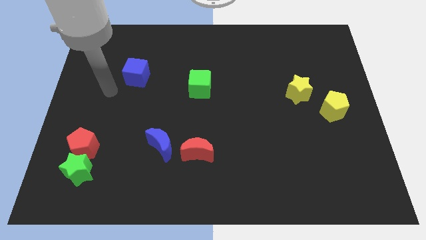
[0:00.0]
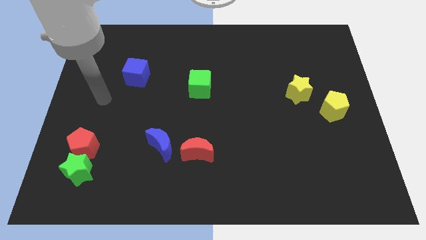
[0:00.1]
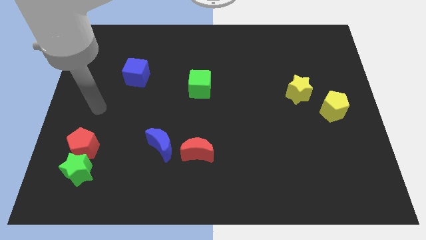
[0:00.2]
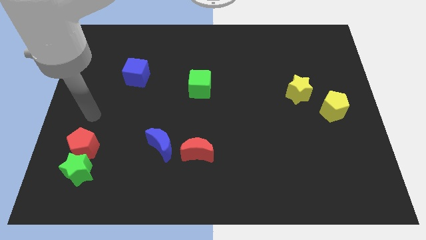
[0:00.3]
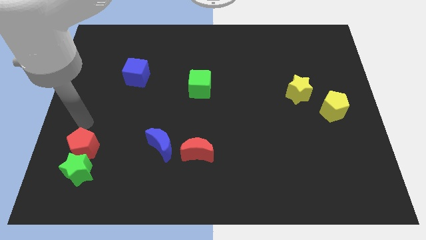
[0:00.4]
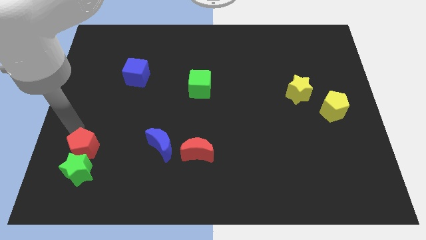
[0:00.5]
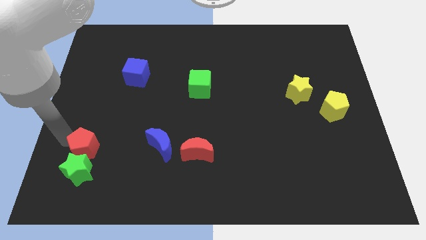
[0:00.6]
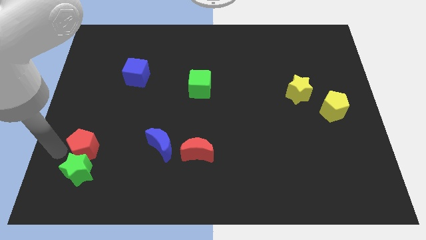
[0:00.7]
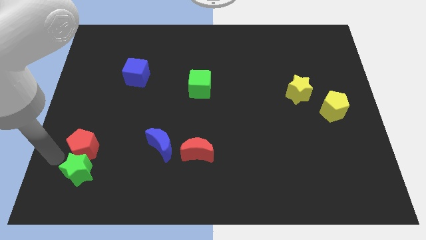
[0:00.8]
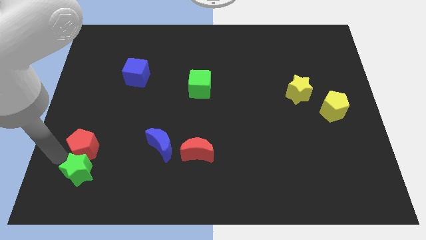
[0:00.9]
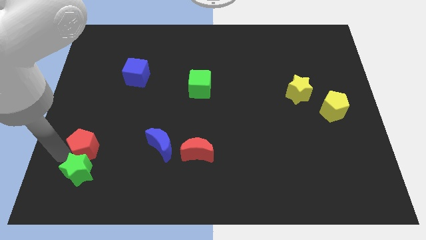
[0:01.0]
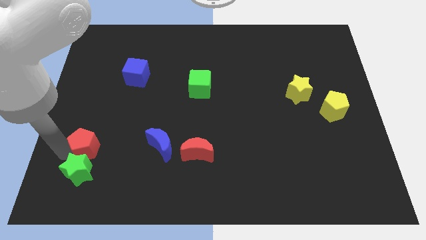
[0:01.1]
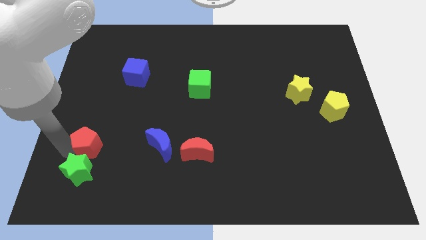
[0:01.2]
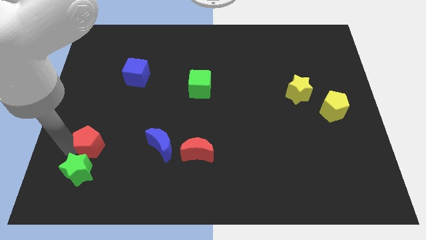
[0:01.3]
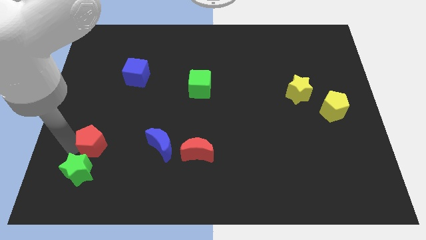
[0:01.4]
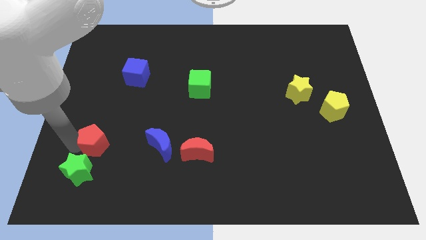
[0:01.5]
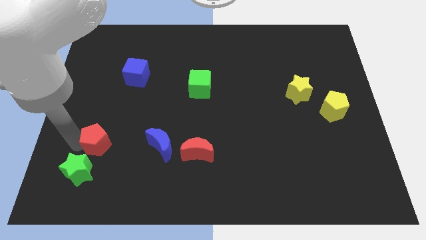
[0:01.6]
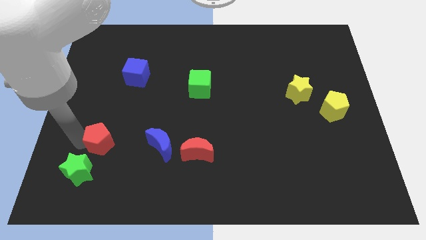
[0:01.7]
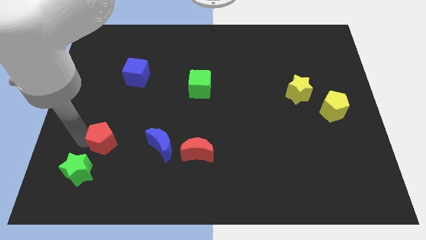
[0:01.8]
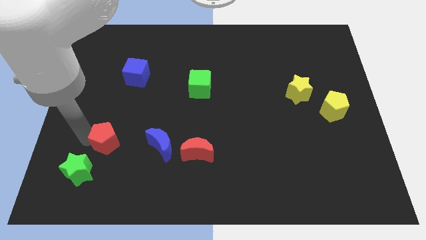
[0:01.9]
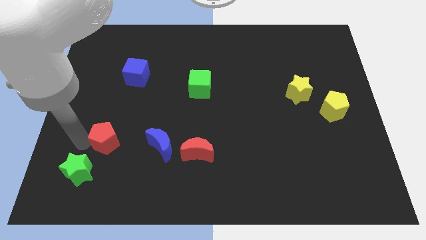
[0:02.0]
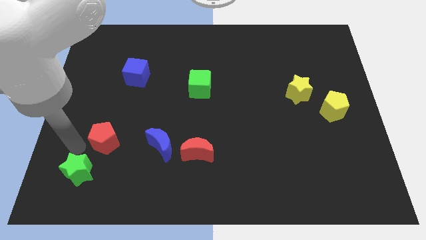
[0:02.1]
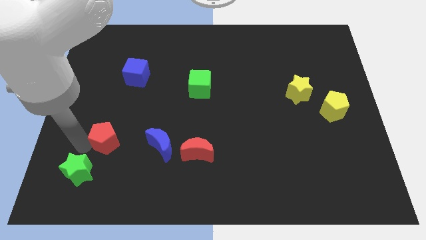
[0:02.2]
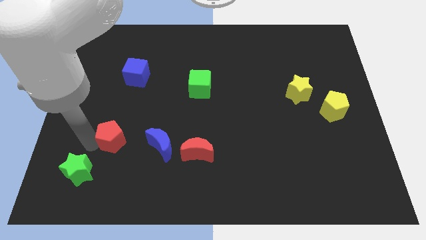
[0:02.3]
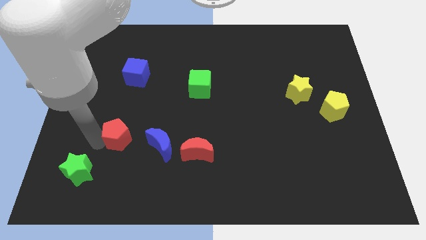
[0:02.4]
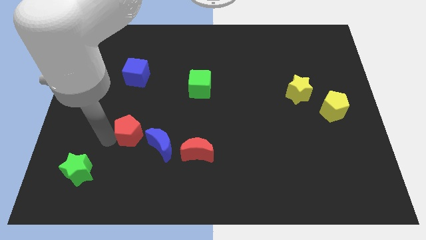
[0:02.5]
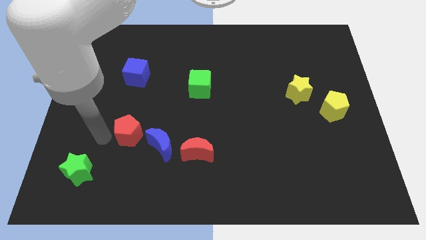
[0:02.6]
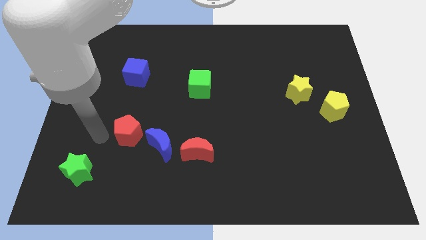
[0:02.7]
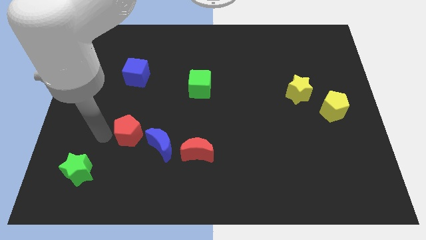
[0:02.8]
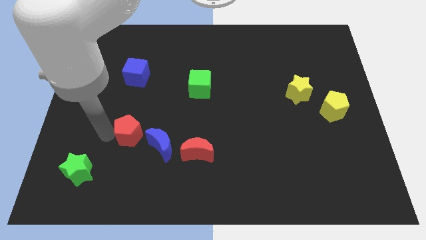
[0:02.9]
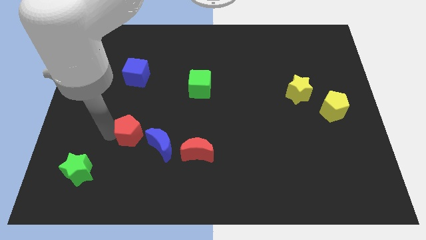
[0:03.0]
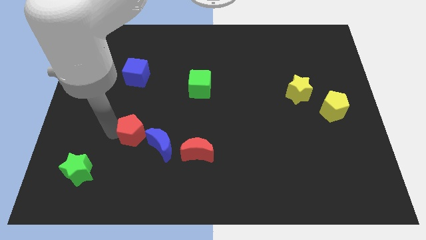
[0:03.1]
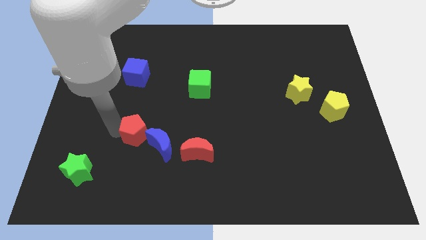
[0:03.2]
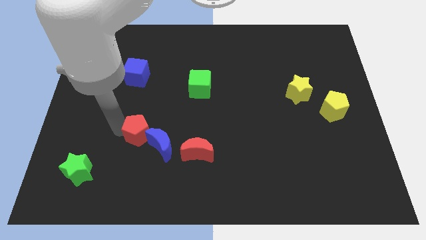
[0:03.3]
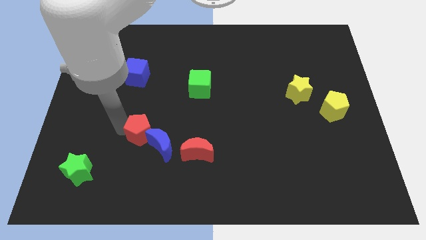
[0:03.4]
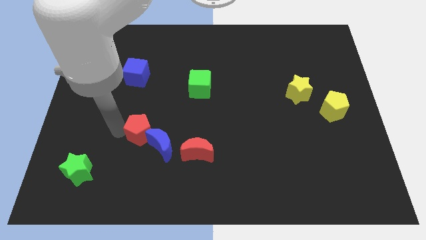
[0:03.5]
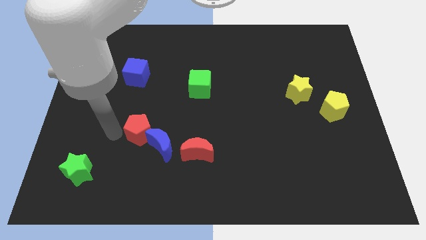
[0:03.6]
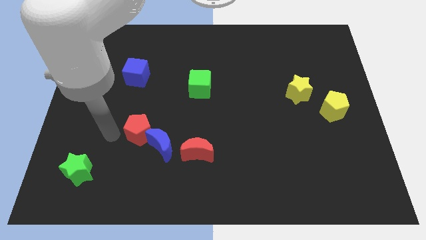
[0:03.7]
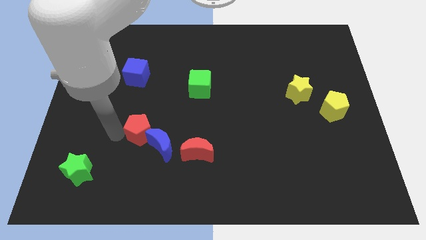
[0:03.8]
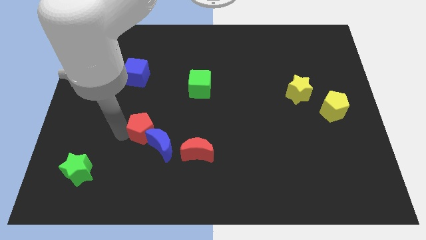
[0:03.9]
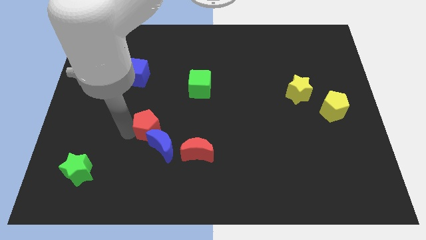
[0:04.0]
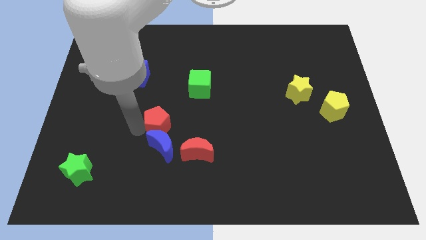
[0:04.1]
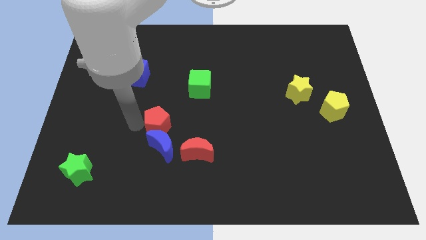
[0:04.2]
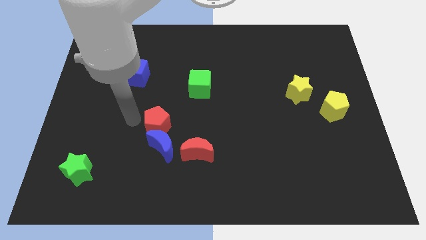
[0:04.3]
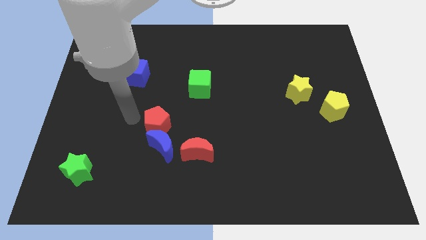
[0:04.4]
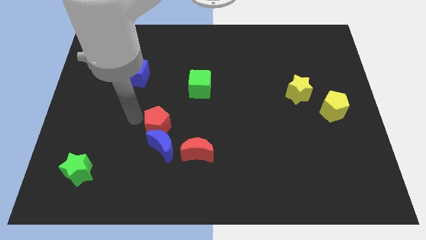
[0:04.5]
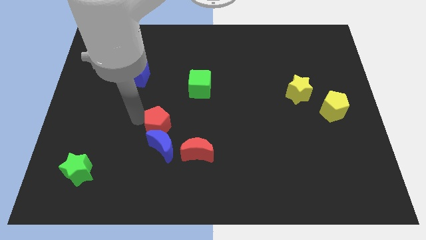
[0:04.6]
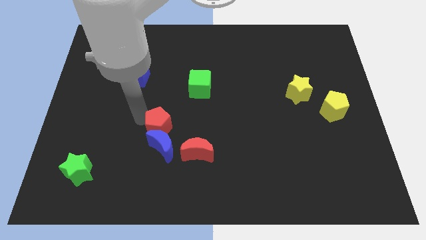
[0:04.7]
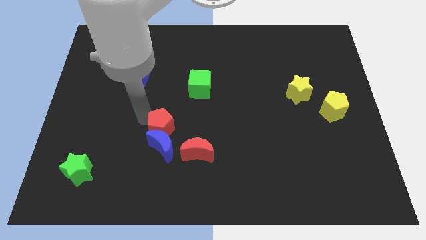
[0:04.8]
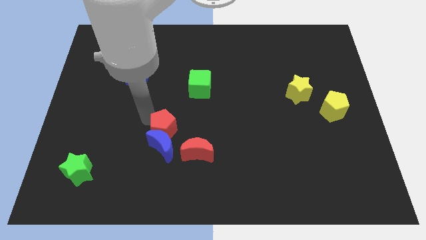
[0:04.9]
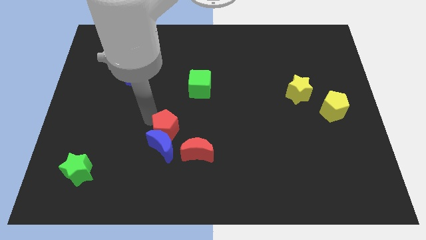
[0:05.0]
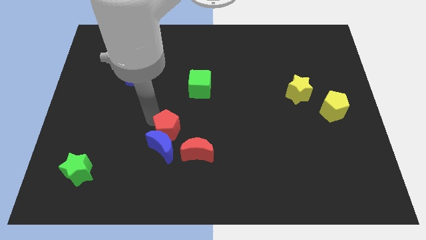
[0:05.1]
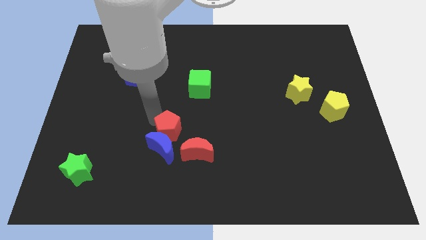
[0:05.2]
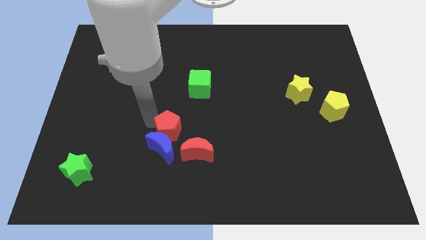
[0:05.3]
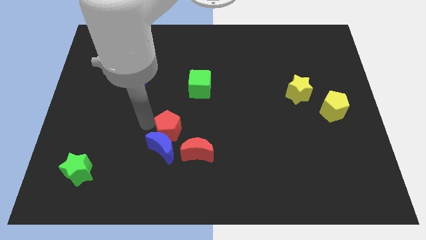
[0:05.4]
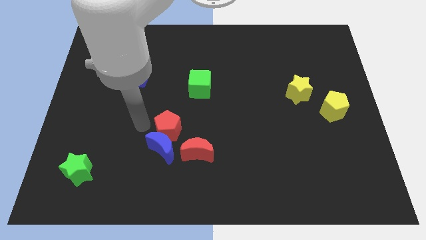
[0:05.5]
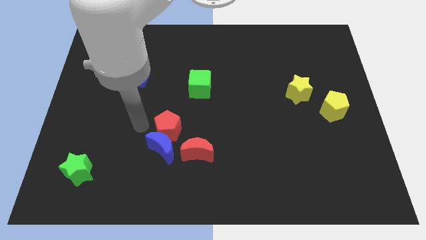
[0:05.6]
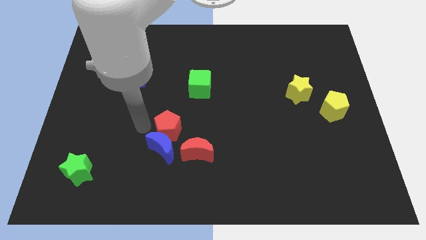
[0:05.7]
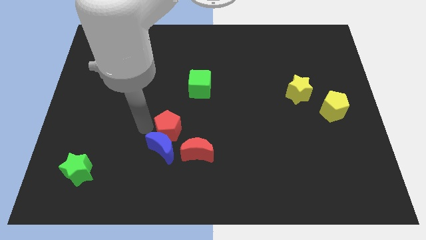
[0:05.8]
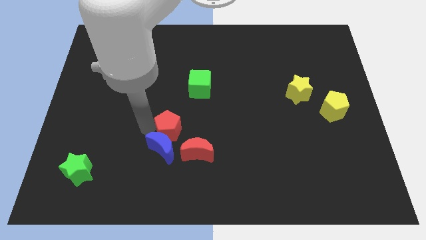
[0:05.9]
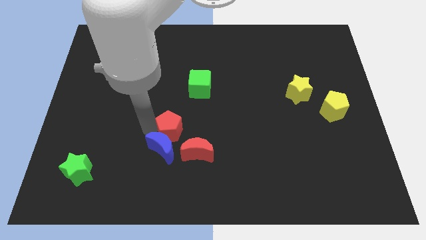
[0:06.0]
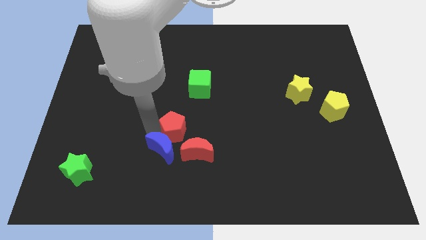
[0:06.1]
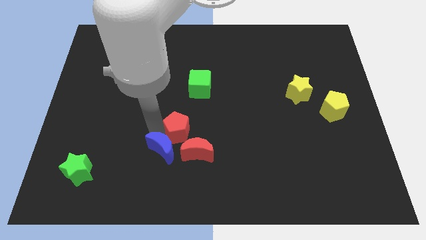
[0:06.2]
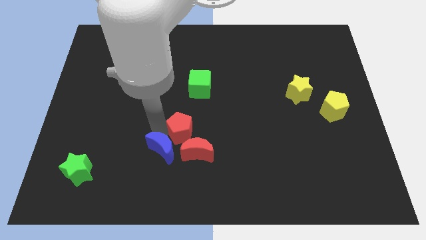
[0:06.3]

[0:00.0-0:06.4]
push the red pentagon to the right

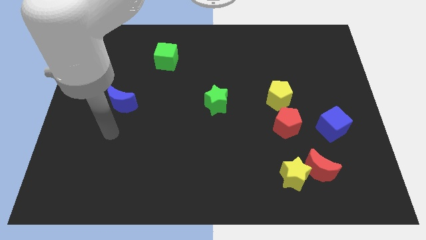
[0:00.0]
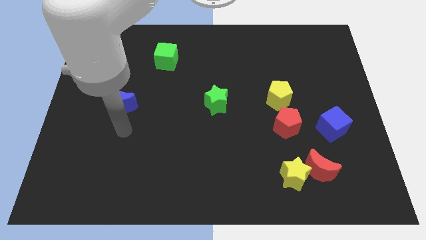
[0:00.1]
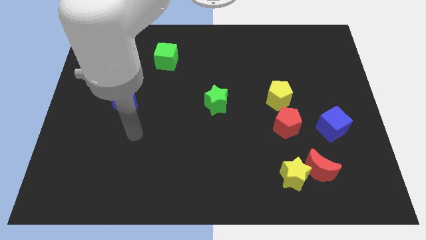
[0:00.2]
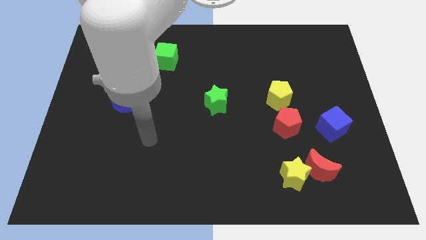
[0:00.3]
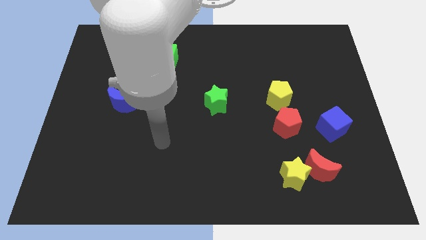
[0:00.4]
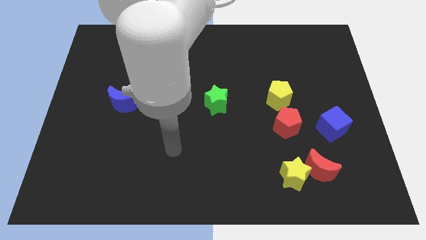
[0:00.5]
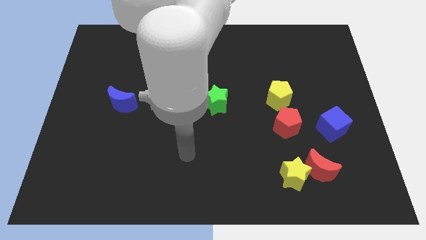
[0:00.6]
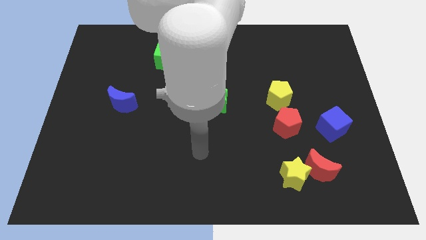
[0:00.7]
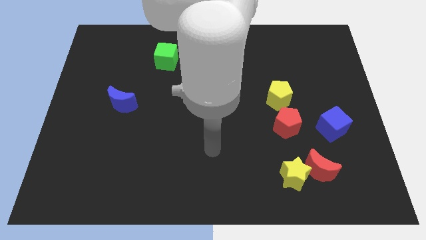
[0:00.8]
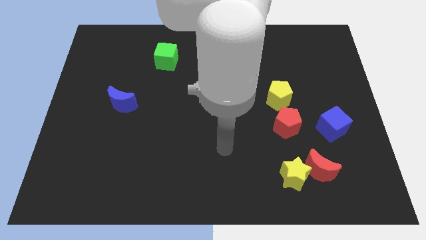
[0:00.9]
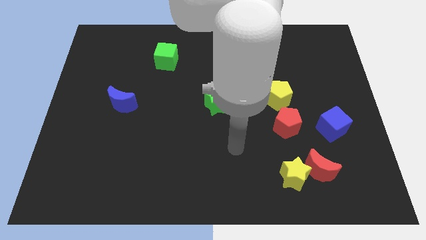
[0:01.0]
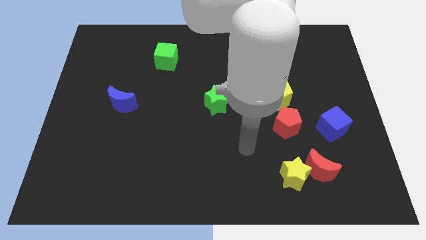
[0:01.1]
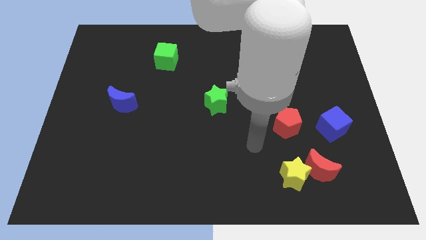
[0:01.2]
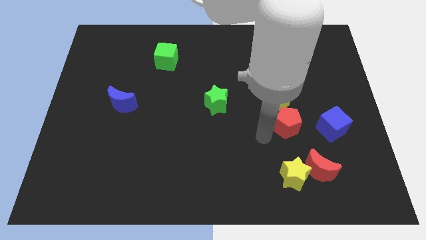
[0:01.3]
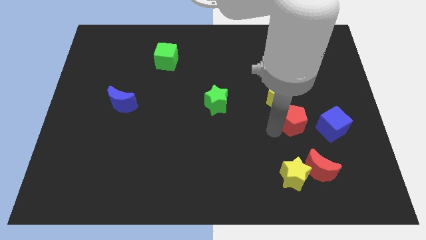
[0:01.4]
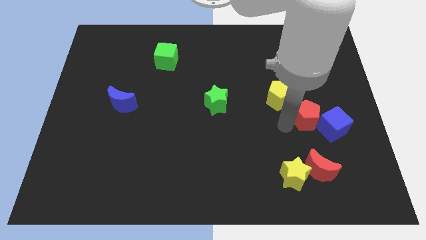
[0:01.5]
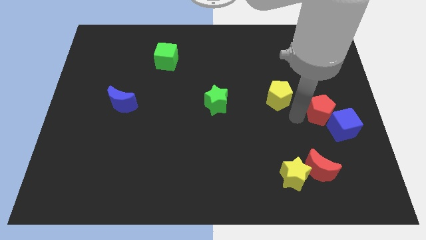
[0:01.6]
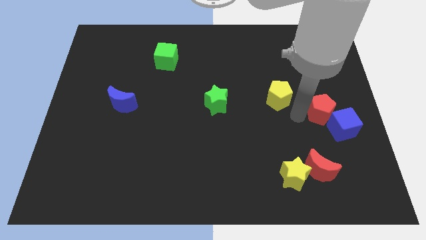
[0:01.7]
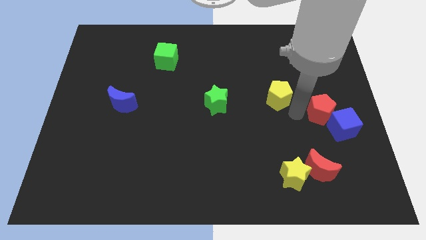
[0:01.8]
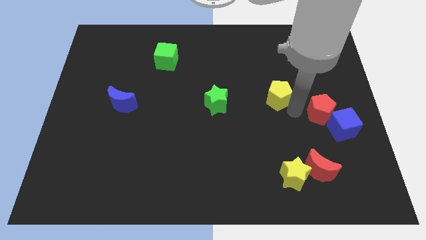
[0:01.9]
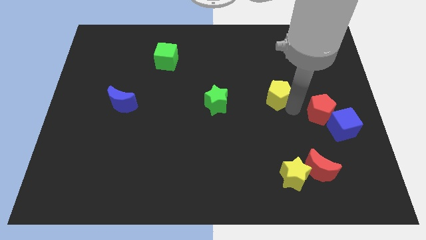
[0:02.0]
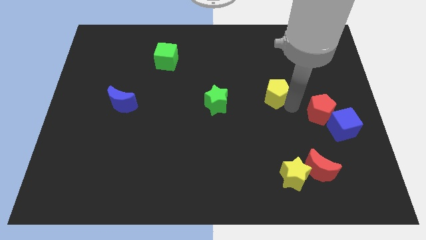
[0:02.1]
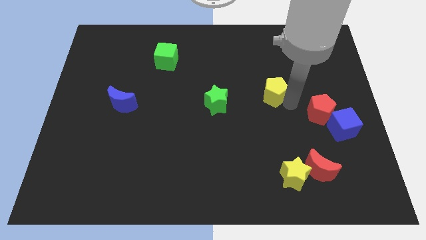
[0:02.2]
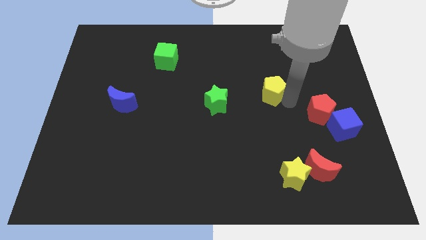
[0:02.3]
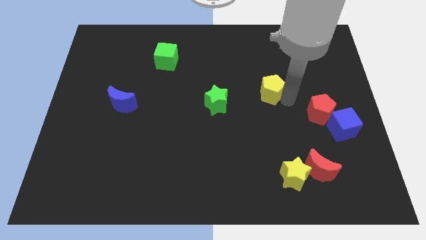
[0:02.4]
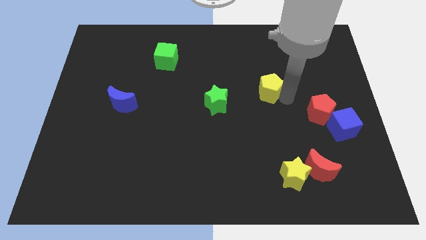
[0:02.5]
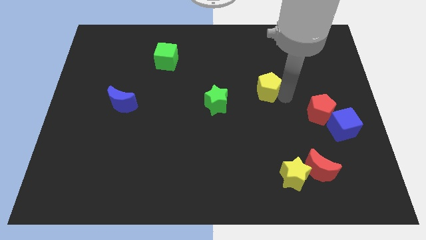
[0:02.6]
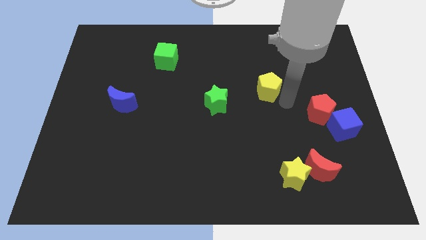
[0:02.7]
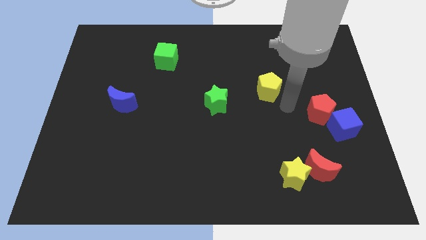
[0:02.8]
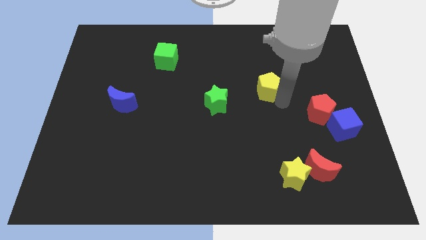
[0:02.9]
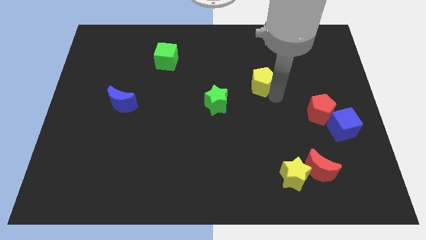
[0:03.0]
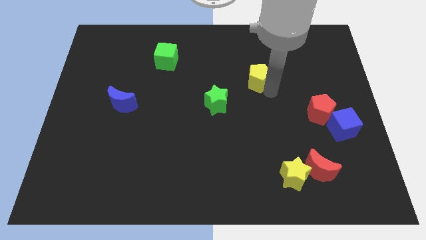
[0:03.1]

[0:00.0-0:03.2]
slightly push the yellow pentagon up and to the left diagonally
